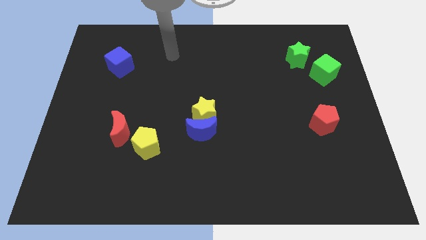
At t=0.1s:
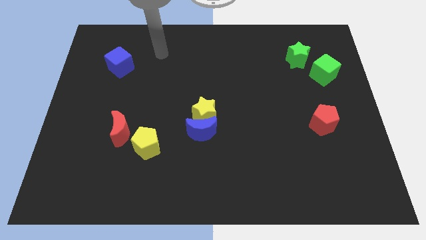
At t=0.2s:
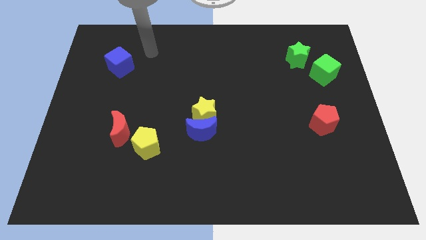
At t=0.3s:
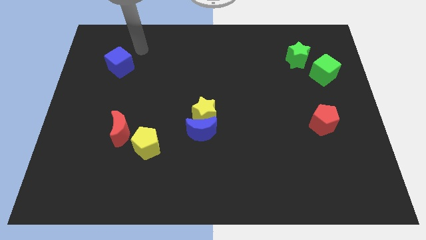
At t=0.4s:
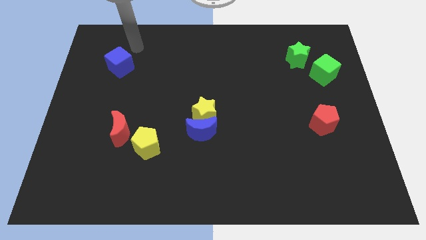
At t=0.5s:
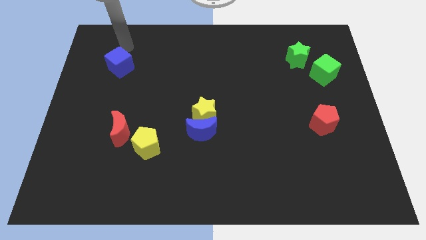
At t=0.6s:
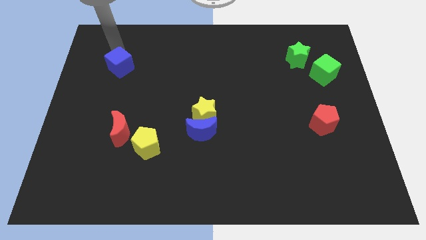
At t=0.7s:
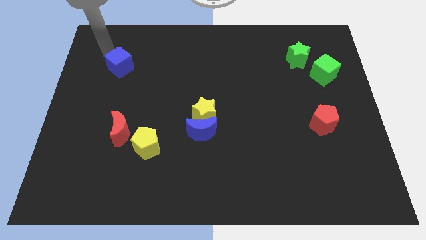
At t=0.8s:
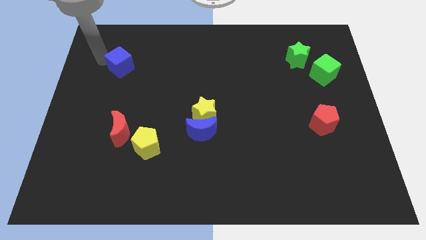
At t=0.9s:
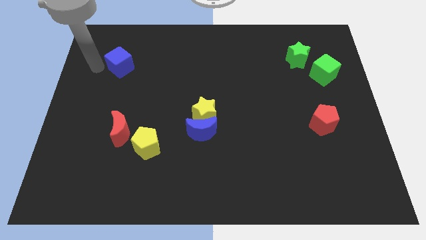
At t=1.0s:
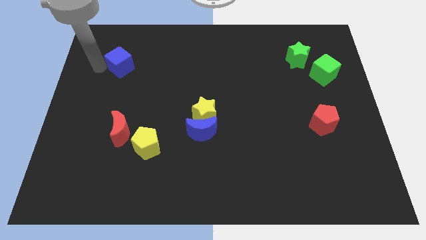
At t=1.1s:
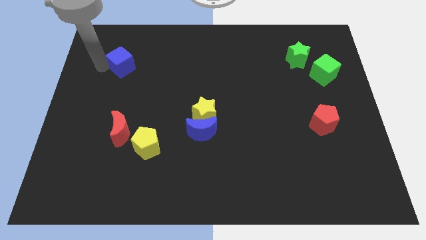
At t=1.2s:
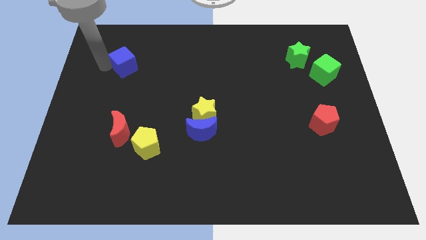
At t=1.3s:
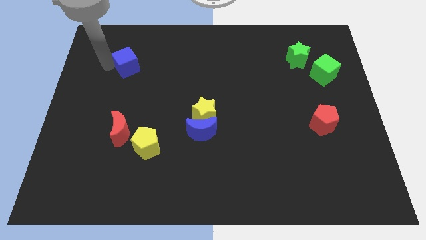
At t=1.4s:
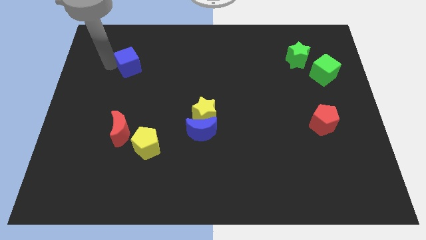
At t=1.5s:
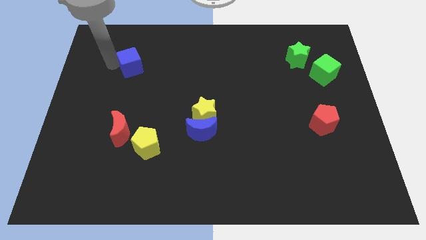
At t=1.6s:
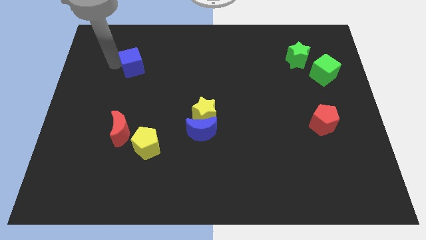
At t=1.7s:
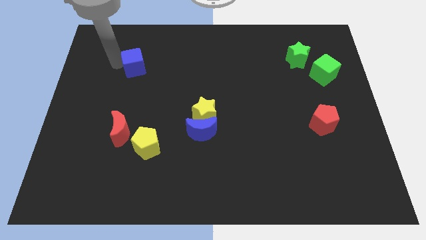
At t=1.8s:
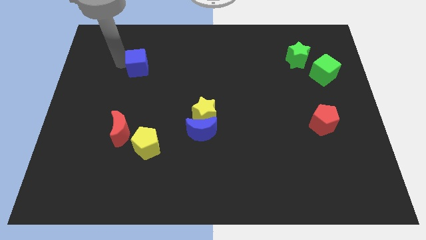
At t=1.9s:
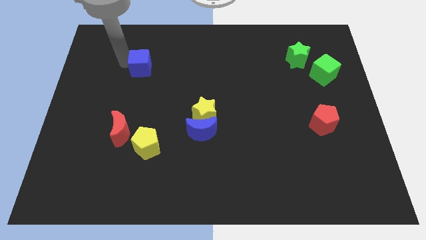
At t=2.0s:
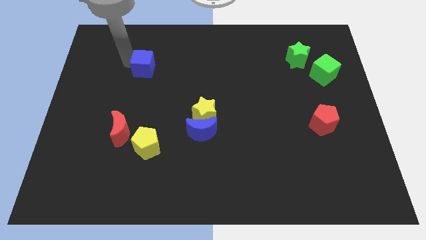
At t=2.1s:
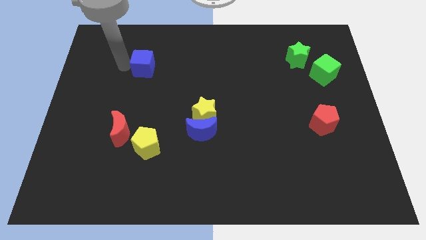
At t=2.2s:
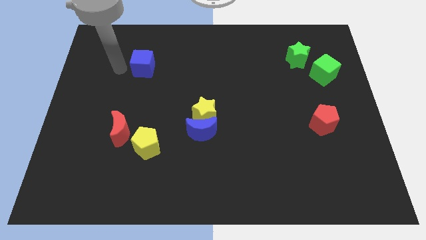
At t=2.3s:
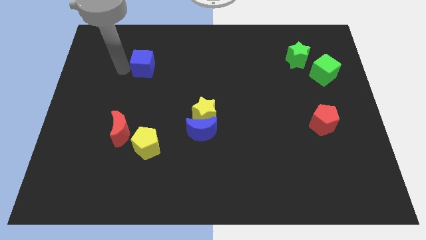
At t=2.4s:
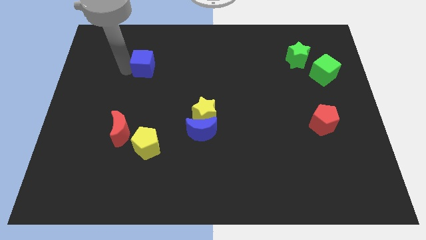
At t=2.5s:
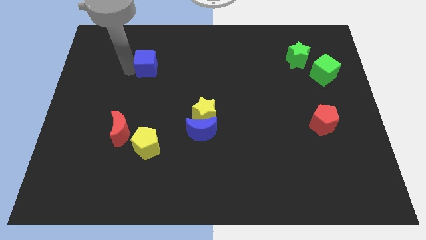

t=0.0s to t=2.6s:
slide the blue cube slightly to the right

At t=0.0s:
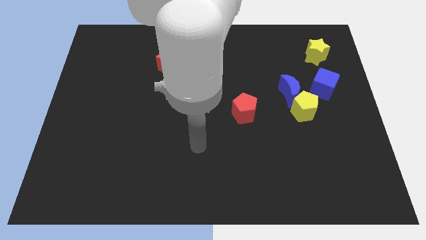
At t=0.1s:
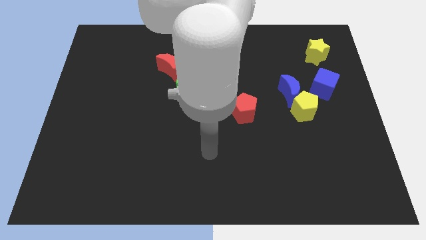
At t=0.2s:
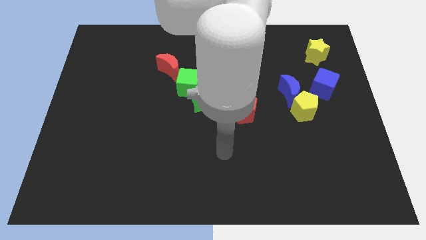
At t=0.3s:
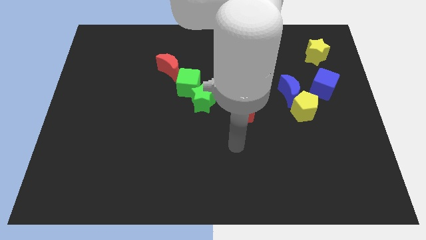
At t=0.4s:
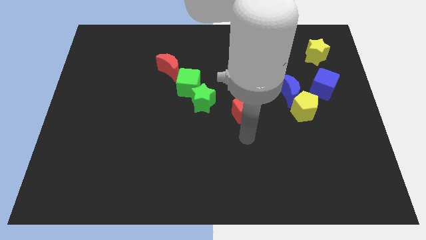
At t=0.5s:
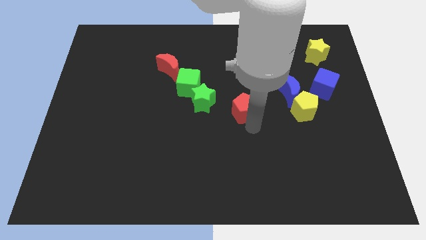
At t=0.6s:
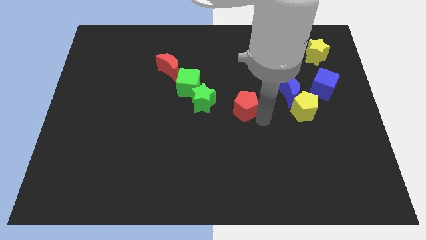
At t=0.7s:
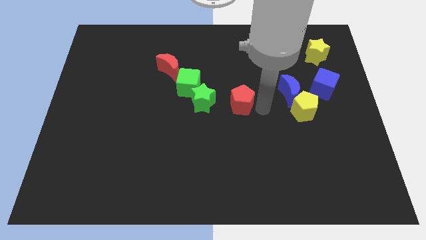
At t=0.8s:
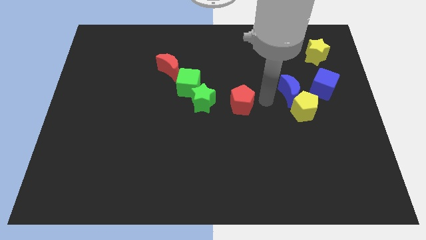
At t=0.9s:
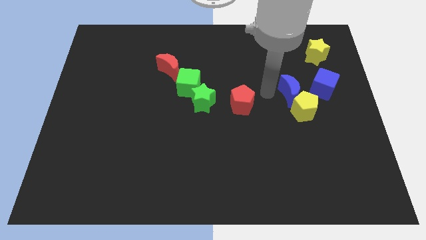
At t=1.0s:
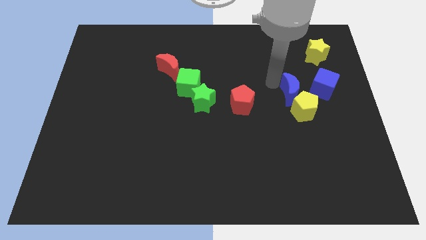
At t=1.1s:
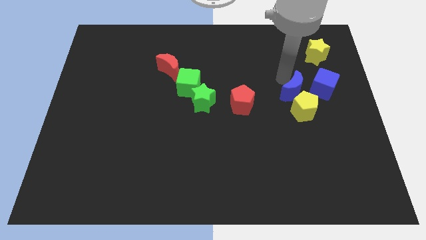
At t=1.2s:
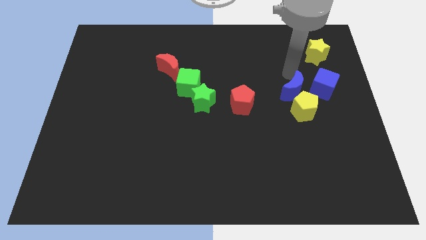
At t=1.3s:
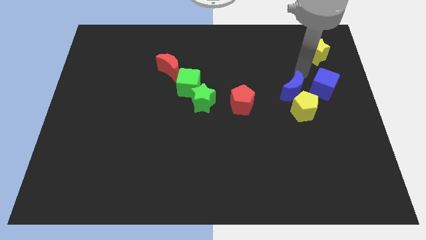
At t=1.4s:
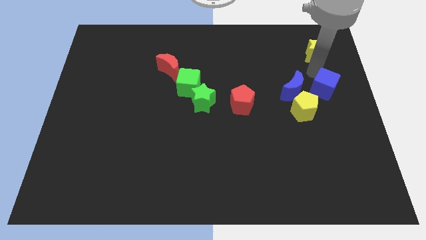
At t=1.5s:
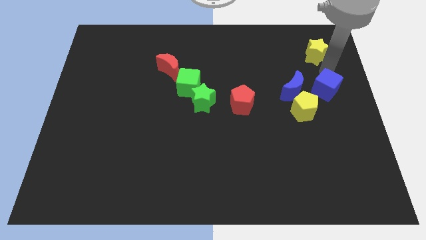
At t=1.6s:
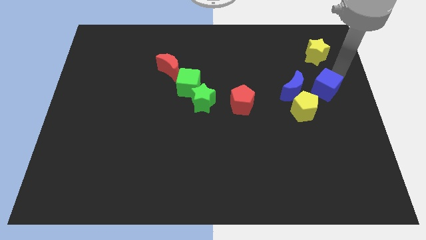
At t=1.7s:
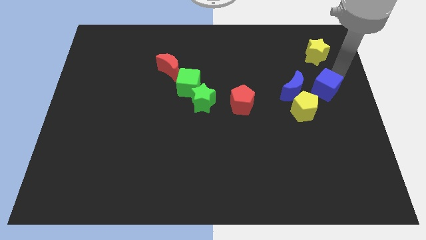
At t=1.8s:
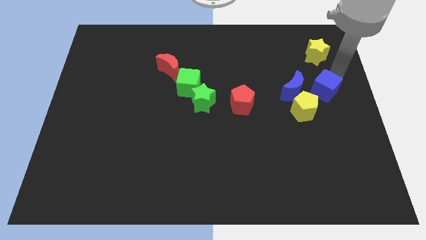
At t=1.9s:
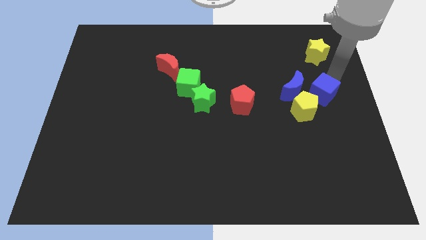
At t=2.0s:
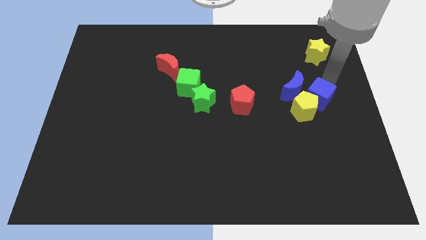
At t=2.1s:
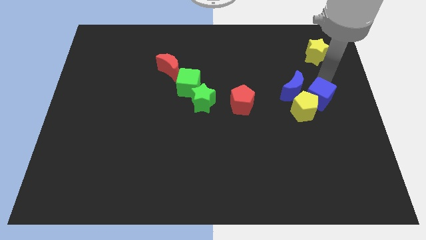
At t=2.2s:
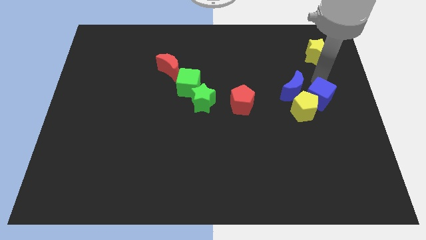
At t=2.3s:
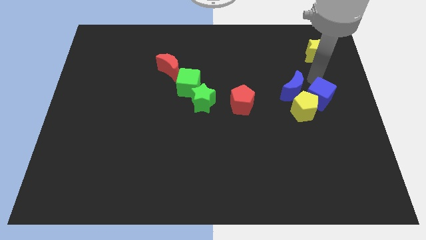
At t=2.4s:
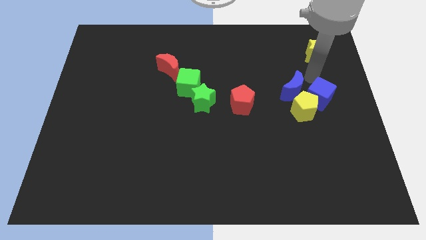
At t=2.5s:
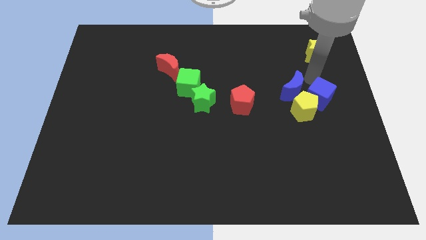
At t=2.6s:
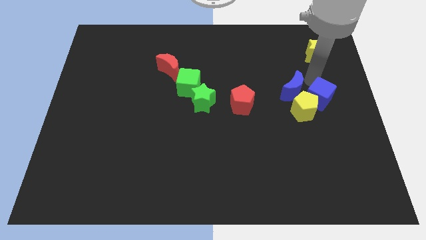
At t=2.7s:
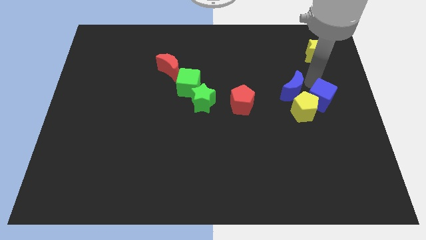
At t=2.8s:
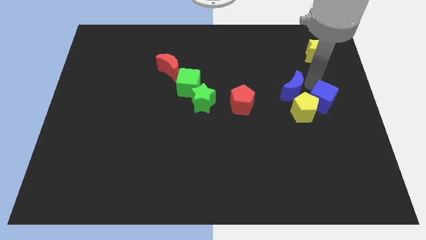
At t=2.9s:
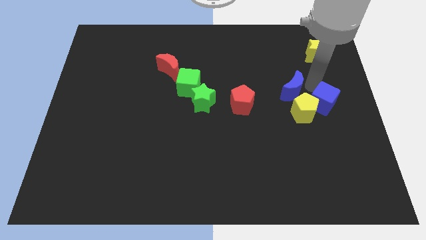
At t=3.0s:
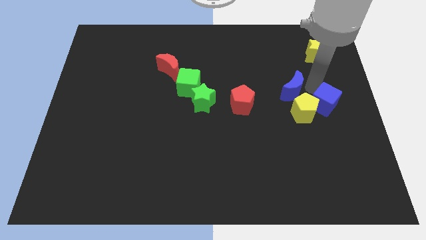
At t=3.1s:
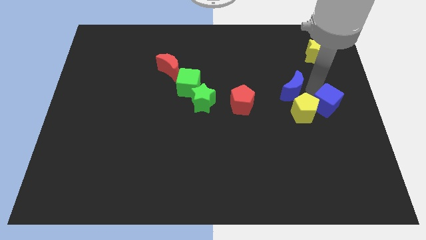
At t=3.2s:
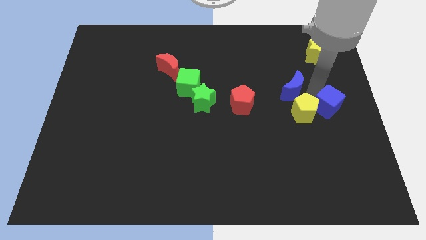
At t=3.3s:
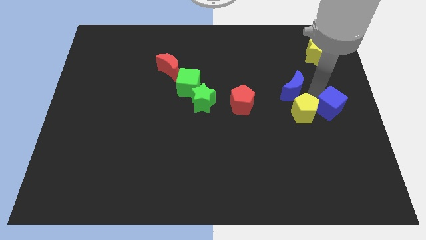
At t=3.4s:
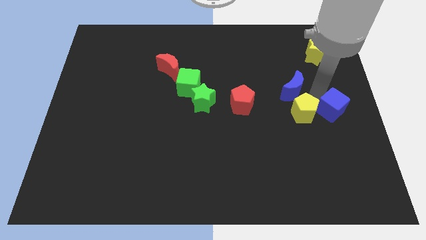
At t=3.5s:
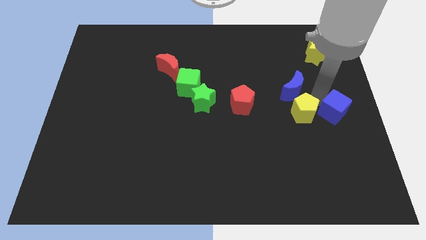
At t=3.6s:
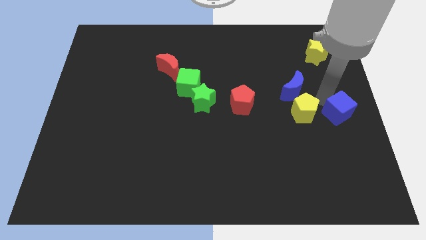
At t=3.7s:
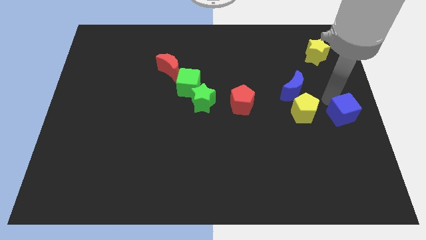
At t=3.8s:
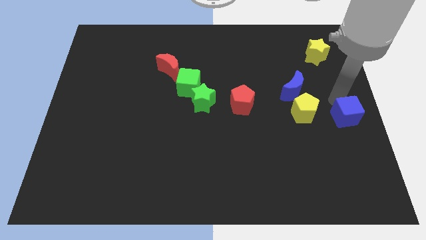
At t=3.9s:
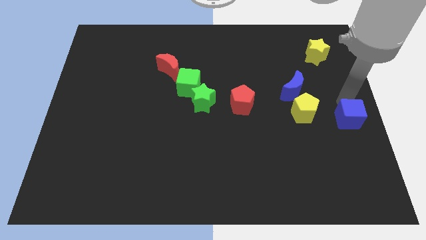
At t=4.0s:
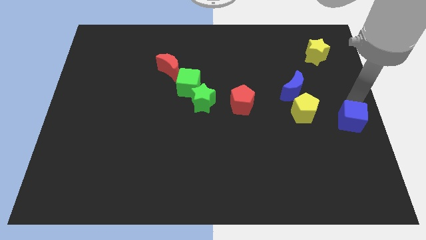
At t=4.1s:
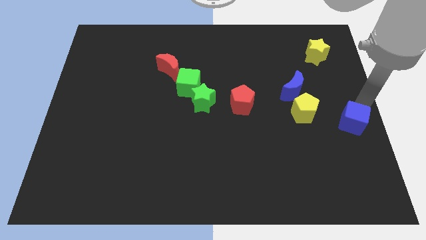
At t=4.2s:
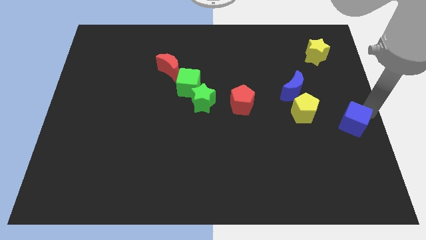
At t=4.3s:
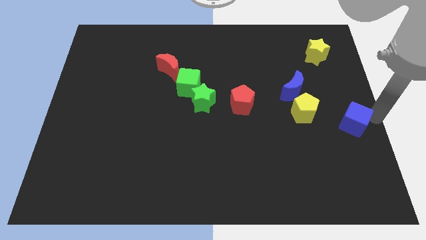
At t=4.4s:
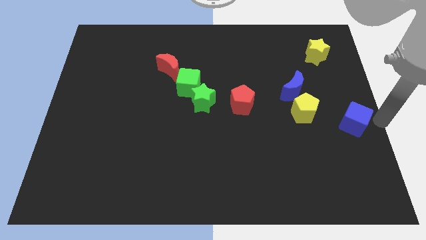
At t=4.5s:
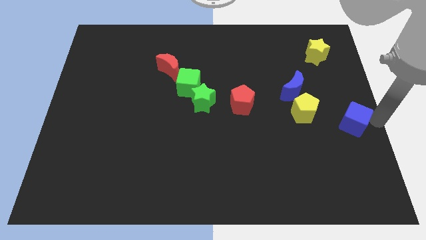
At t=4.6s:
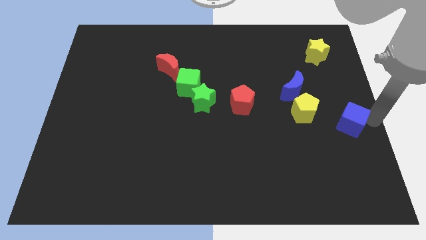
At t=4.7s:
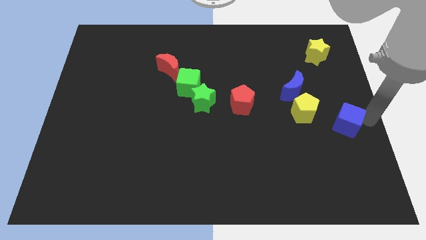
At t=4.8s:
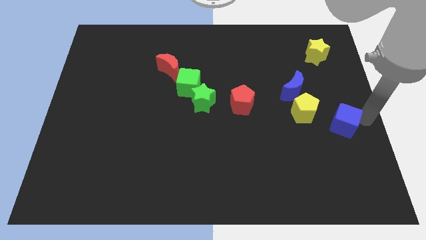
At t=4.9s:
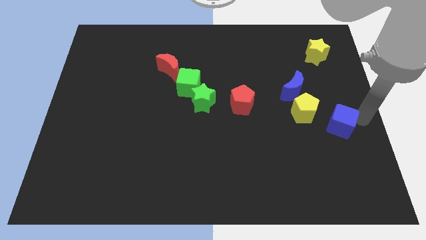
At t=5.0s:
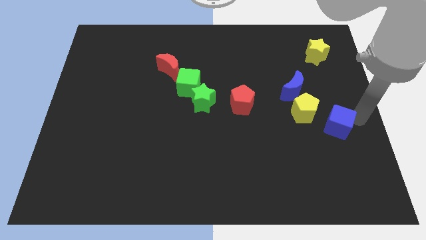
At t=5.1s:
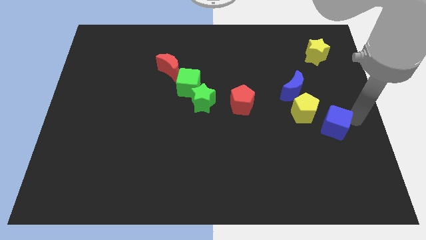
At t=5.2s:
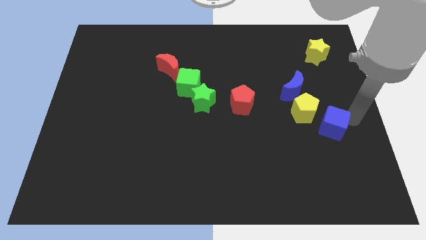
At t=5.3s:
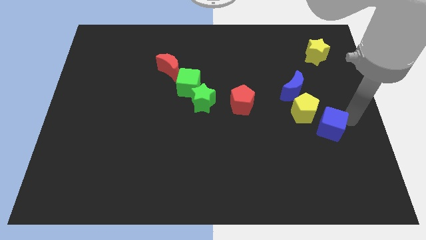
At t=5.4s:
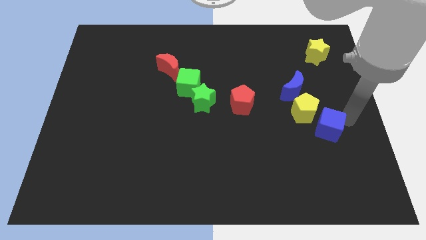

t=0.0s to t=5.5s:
slightly push the blue cube down and then to the left

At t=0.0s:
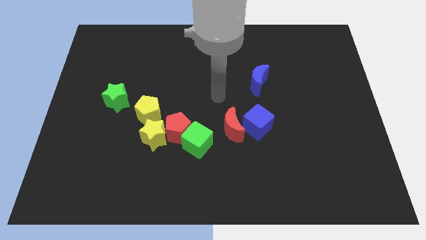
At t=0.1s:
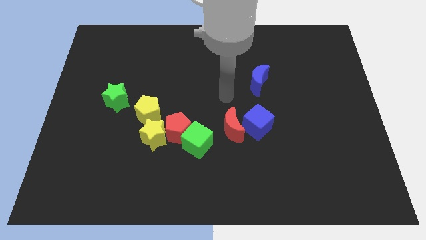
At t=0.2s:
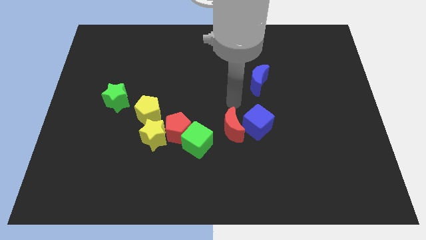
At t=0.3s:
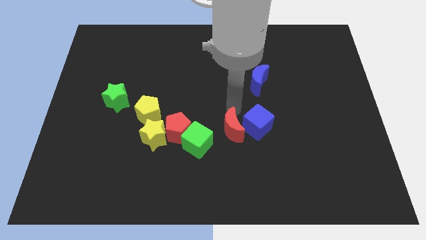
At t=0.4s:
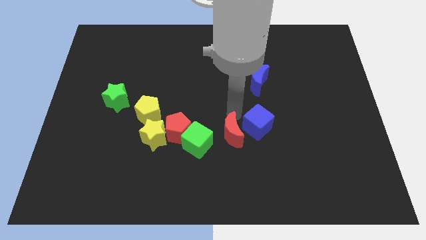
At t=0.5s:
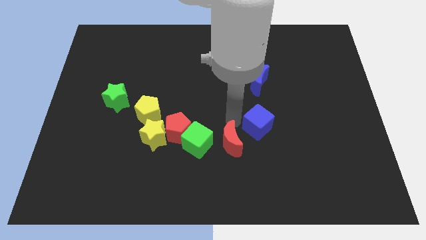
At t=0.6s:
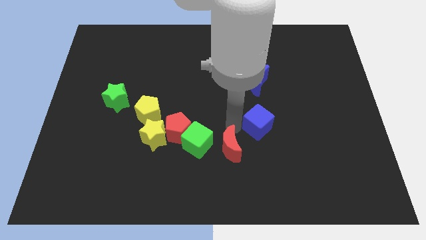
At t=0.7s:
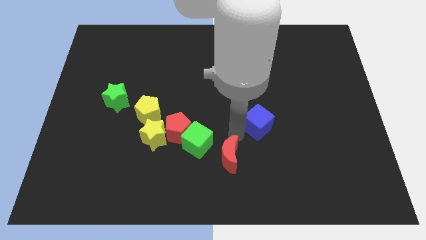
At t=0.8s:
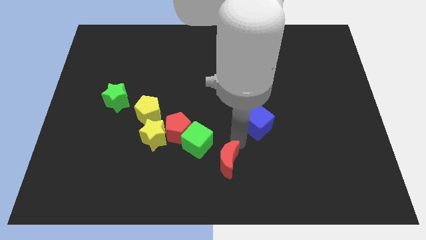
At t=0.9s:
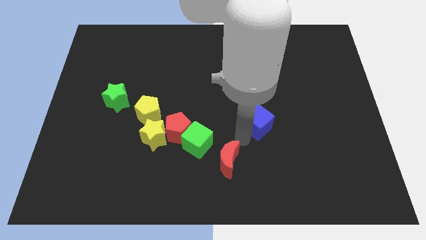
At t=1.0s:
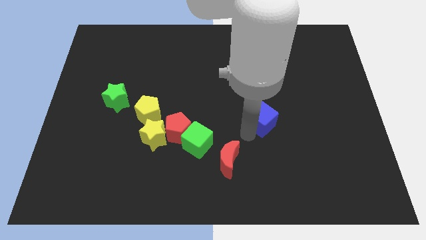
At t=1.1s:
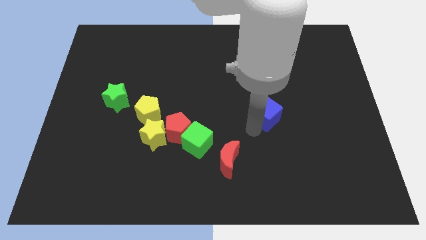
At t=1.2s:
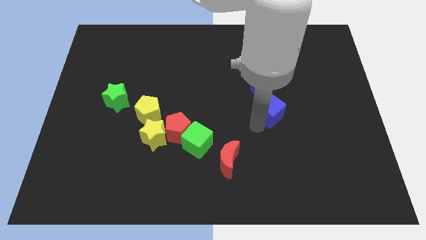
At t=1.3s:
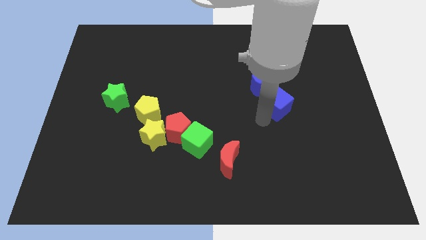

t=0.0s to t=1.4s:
move the blue cube slightly up and then right
